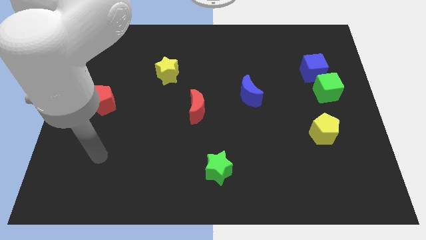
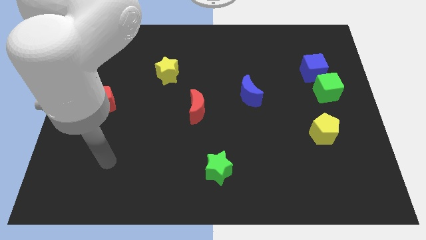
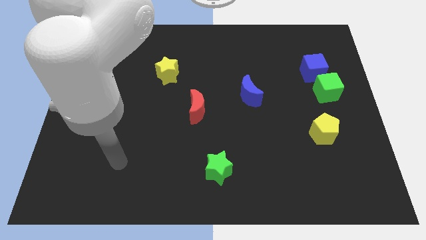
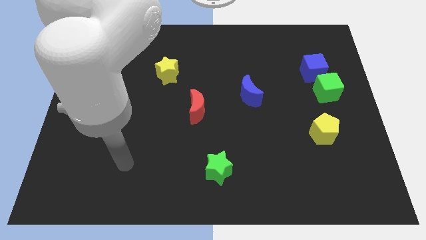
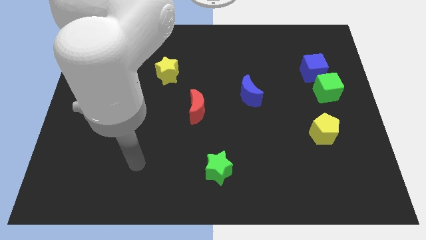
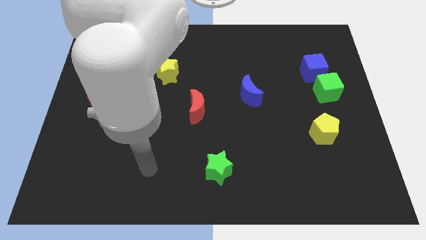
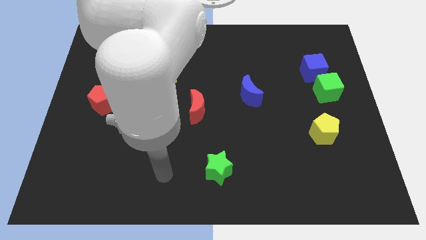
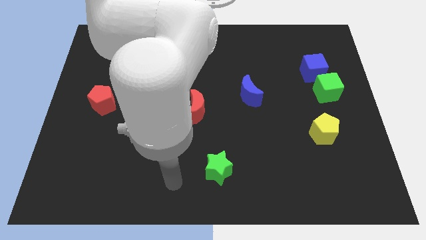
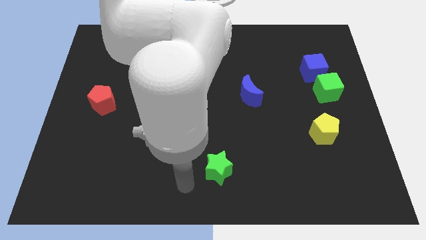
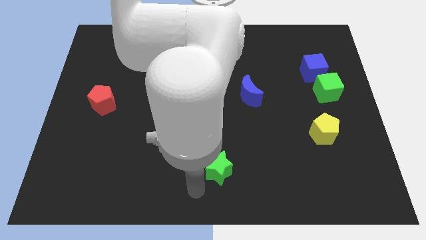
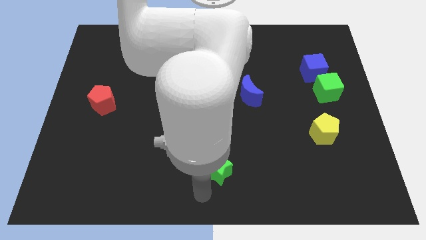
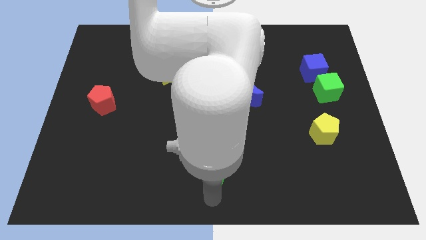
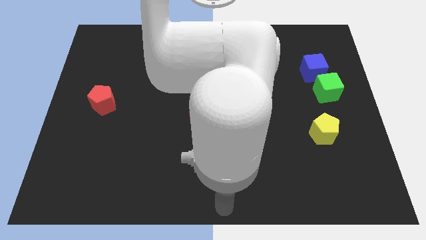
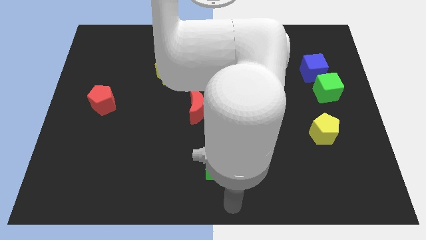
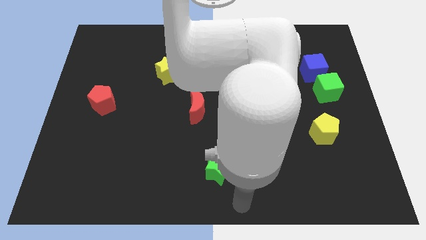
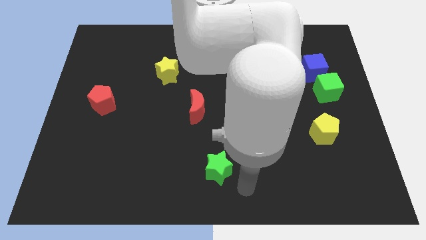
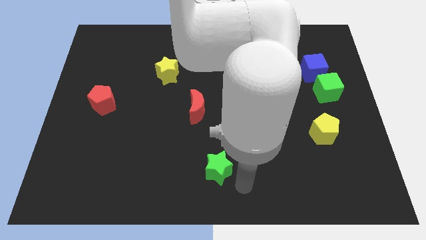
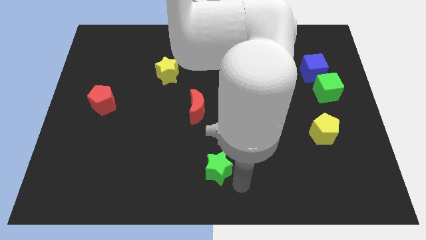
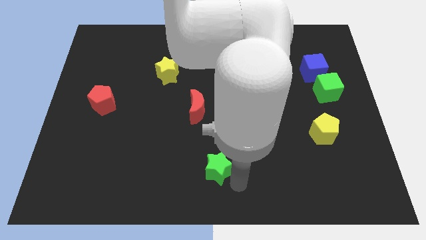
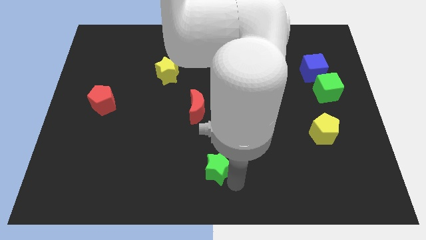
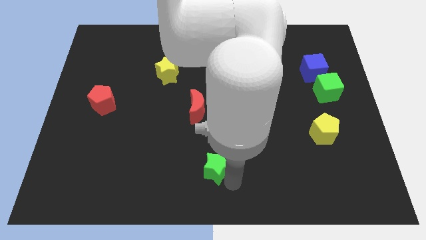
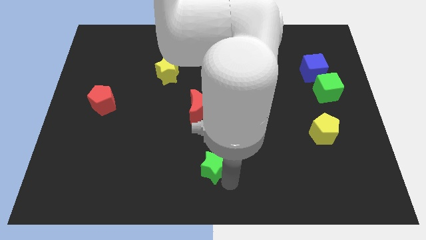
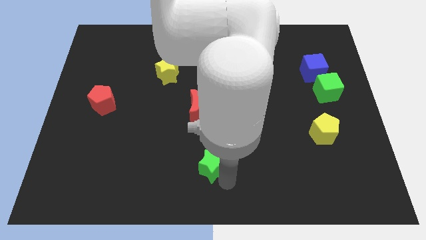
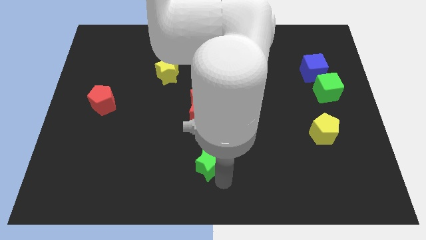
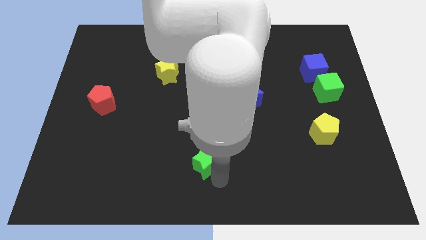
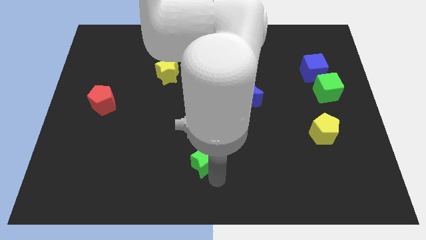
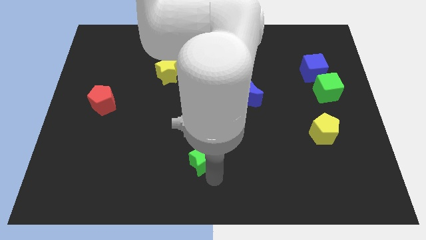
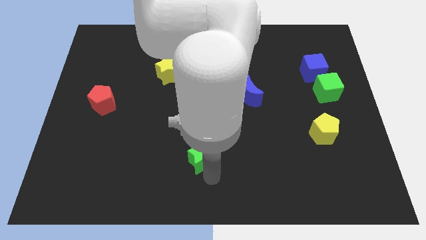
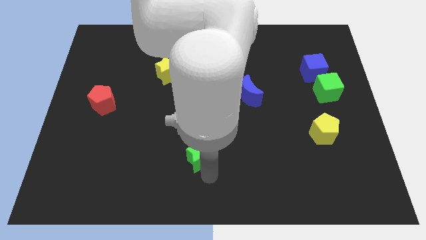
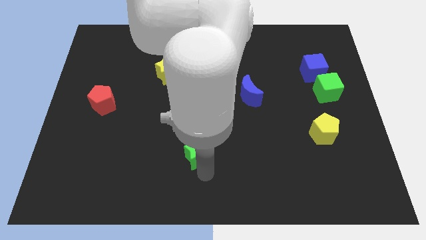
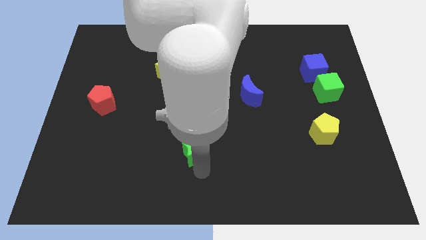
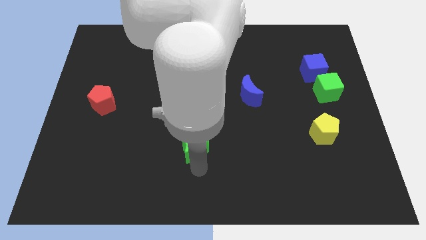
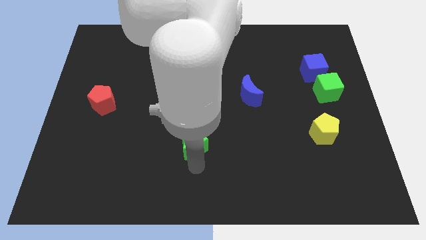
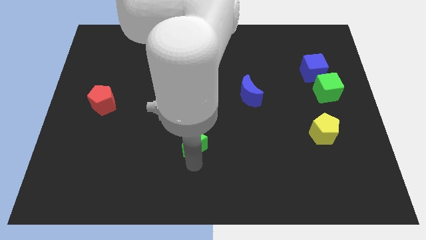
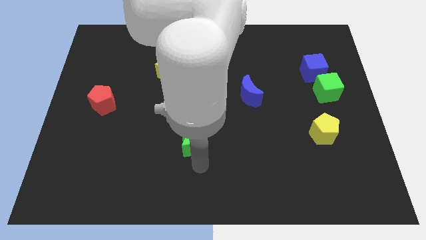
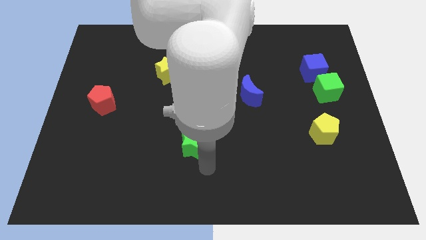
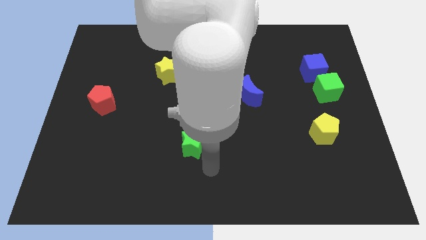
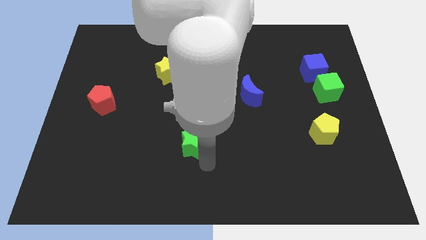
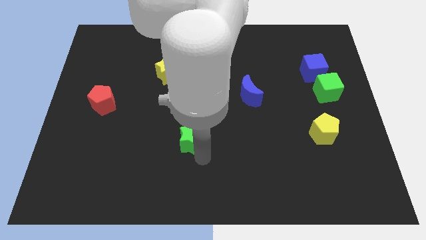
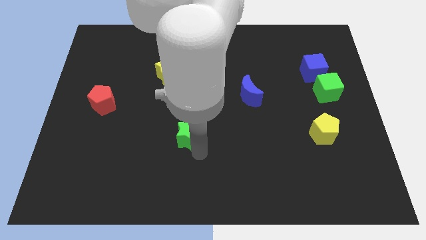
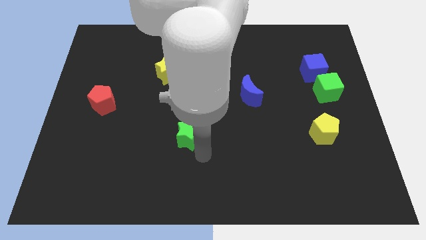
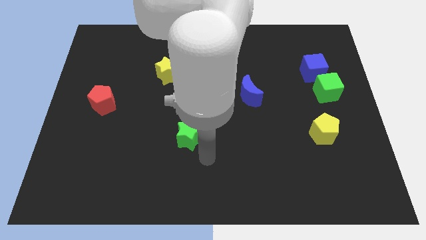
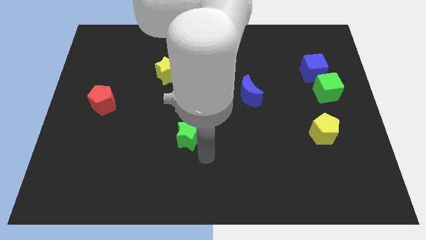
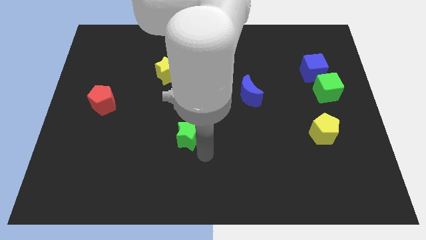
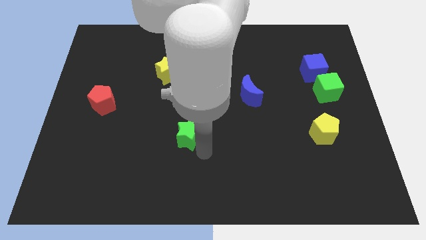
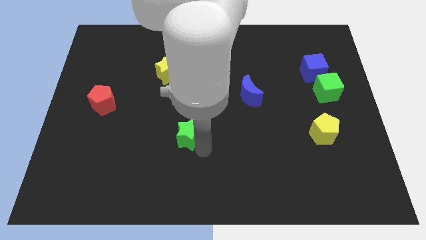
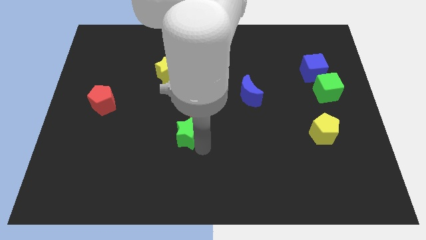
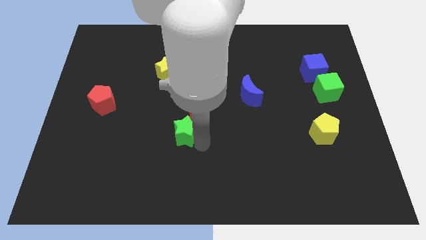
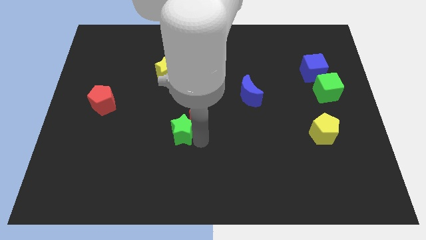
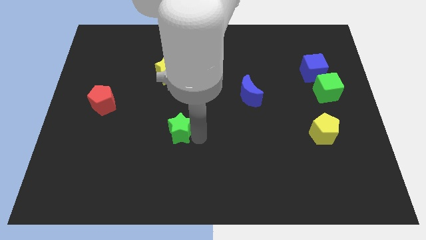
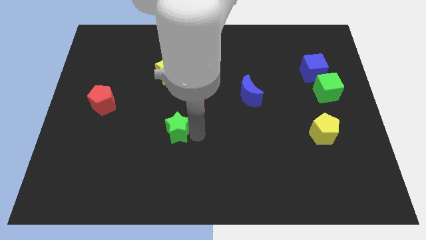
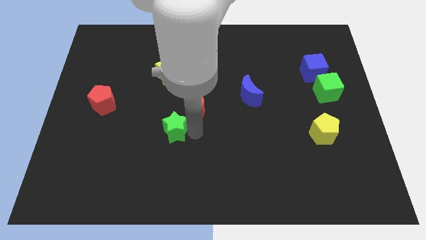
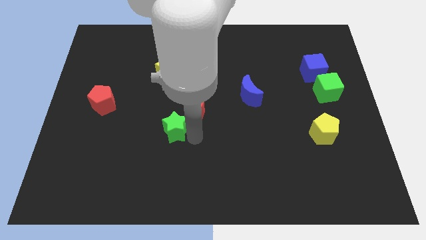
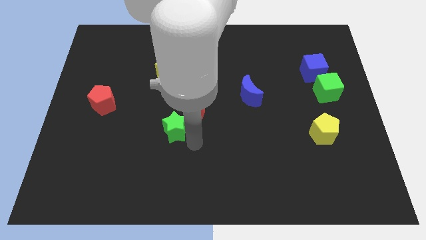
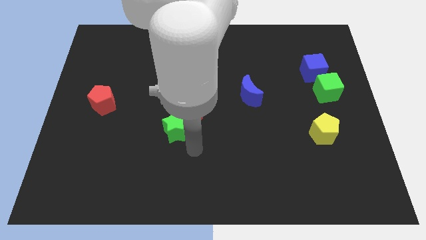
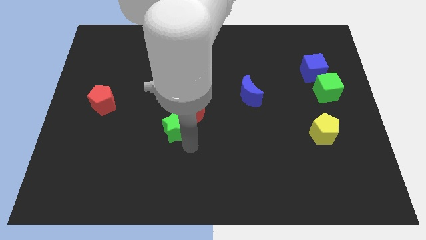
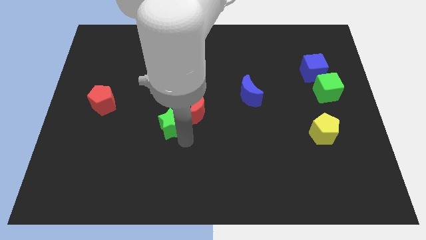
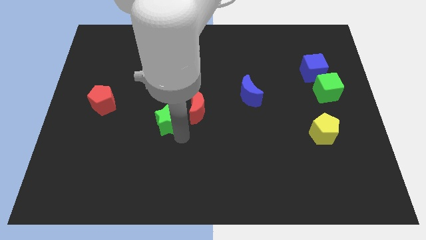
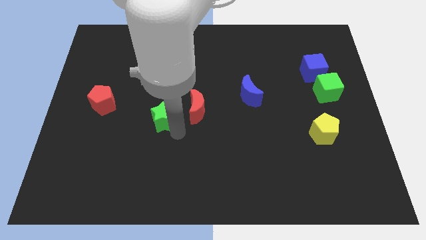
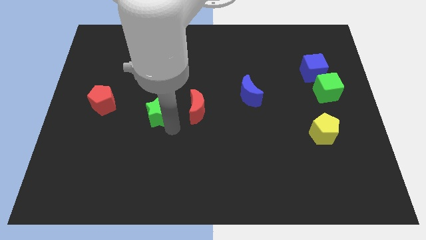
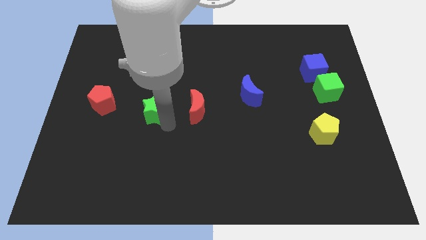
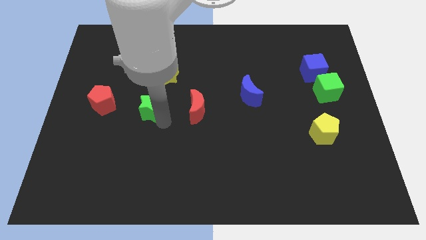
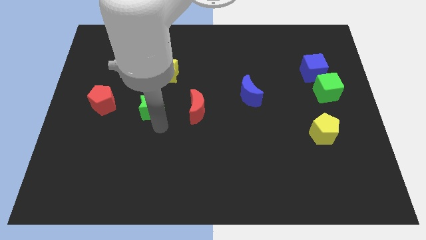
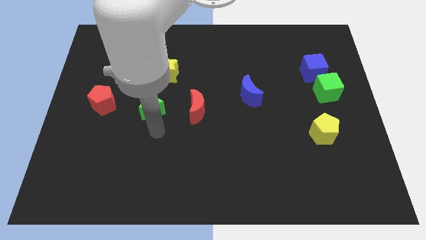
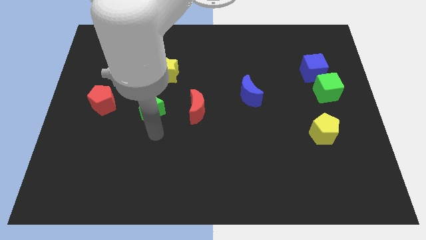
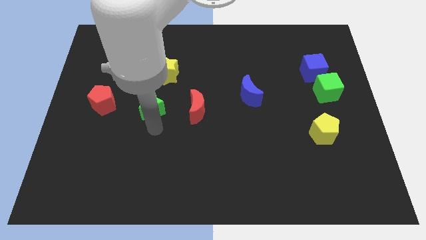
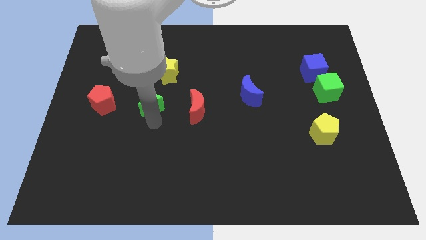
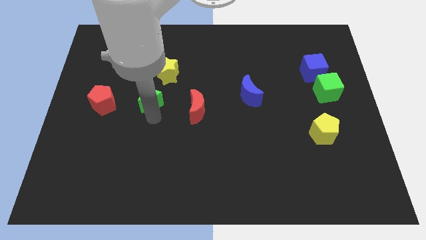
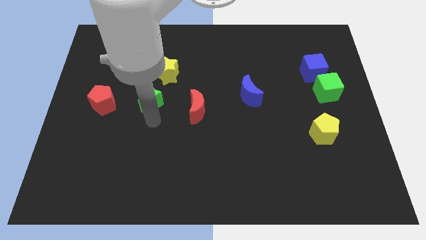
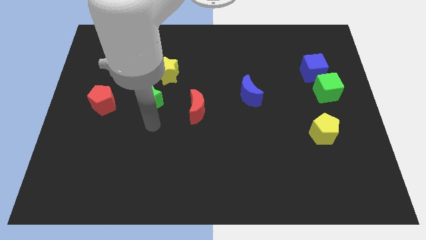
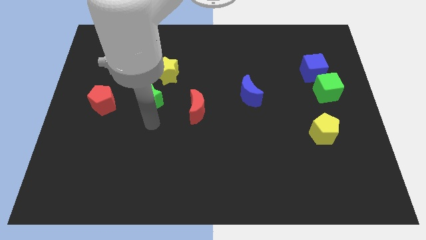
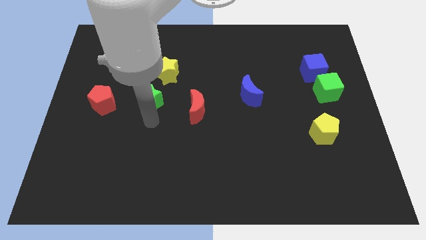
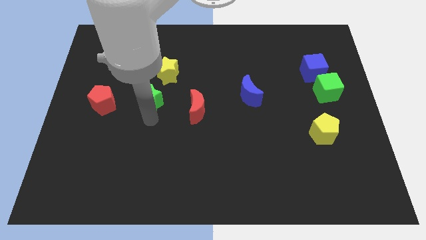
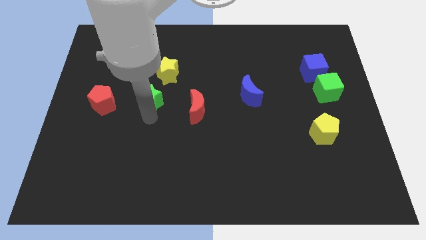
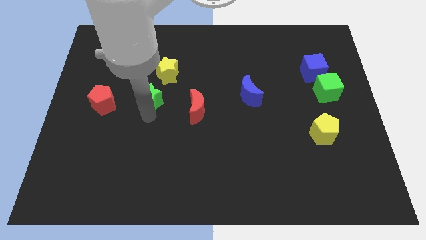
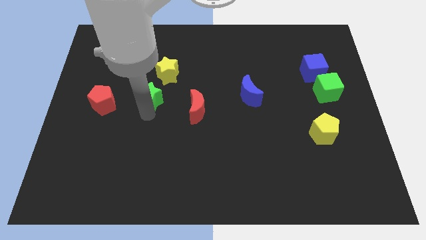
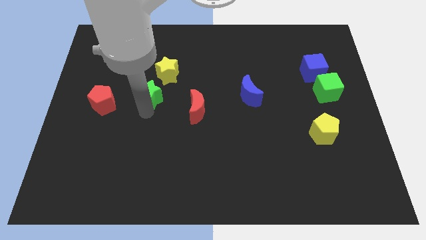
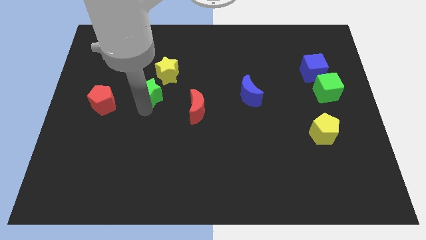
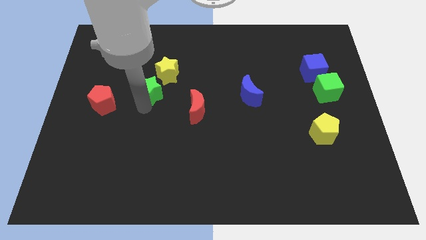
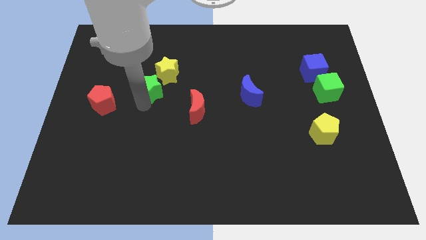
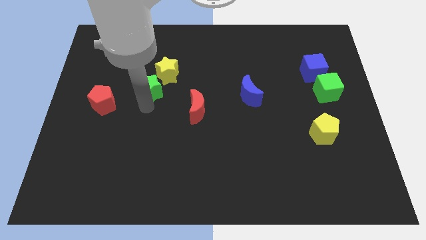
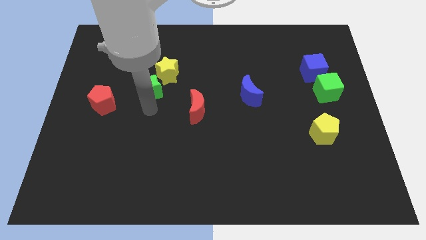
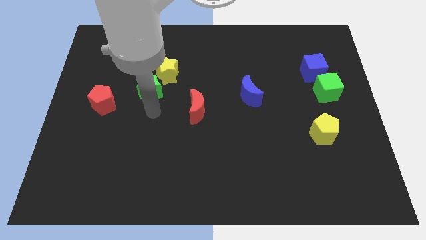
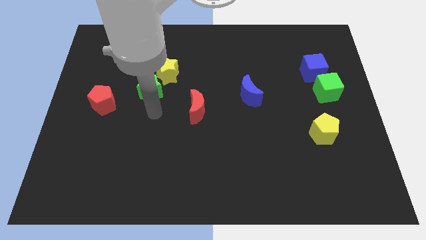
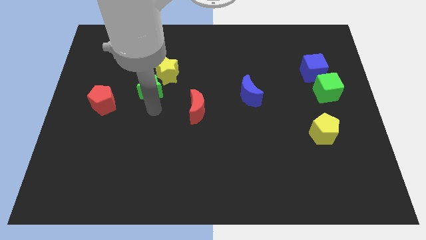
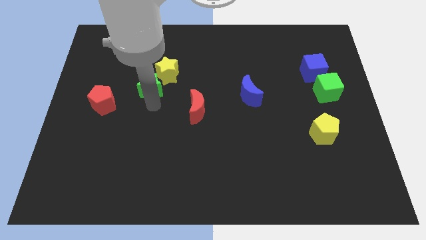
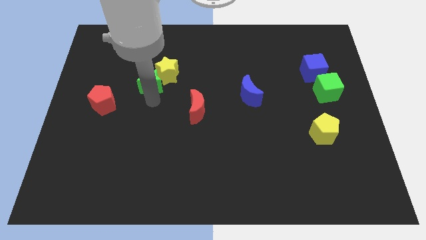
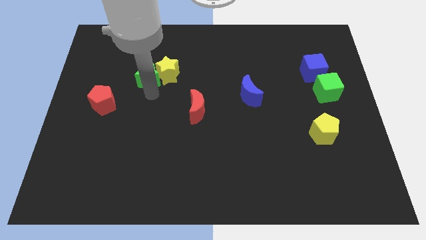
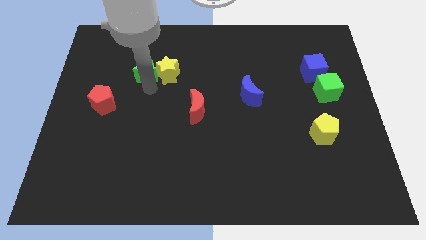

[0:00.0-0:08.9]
put the green star to the top left side of the yellow star
